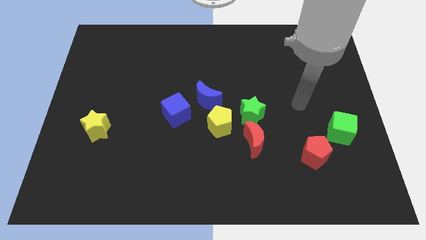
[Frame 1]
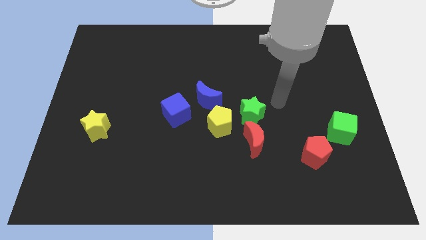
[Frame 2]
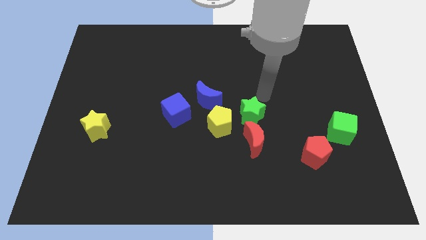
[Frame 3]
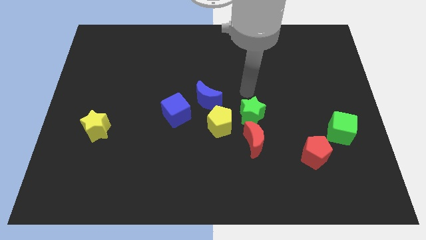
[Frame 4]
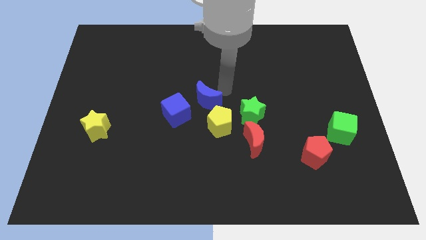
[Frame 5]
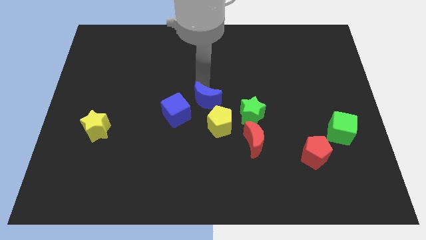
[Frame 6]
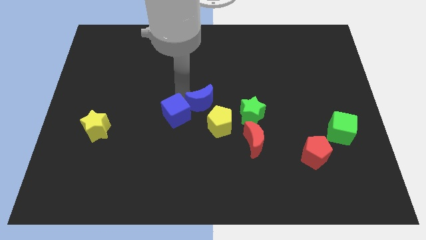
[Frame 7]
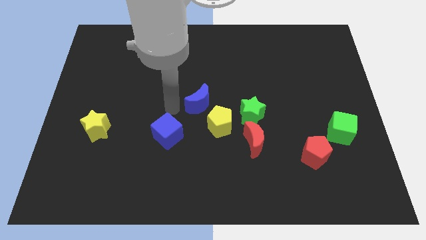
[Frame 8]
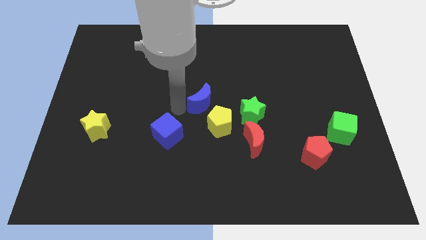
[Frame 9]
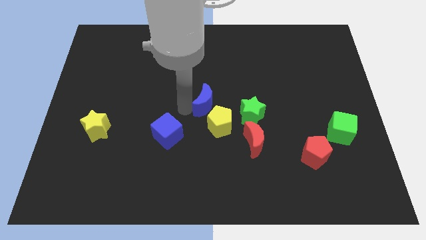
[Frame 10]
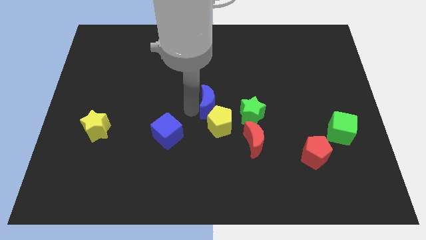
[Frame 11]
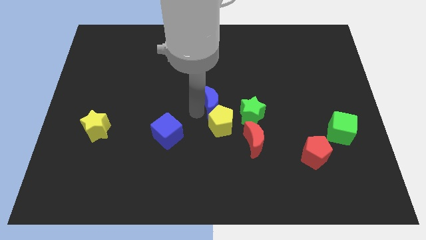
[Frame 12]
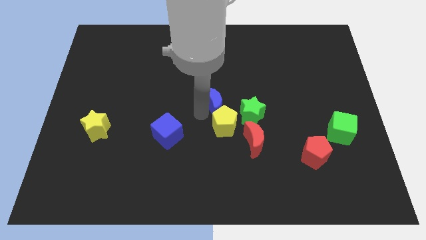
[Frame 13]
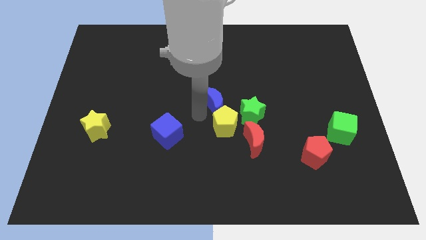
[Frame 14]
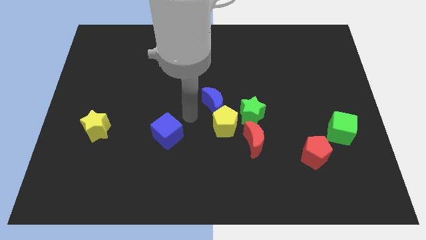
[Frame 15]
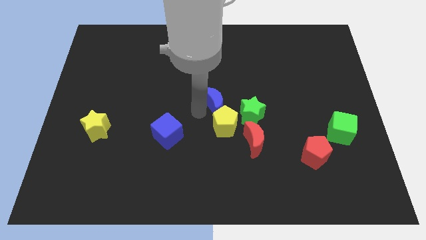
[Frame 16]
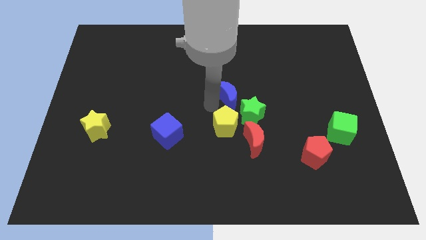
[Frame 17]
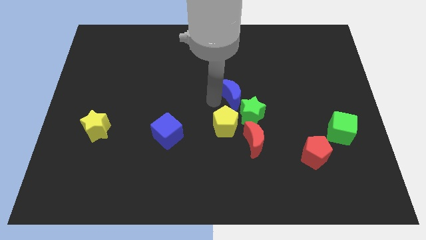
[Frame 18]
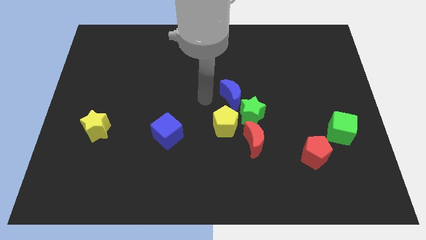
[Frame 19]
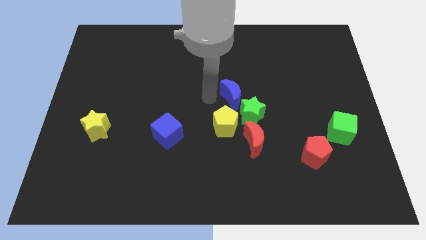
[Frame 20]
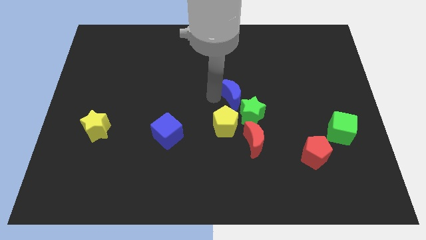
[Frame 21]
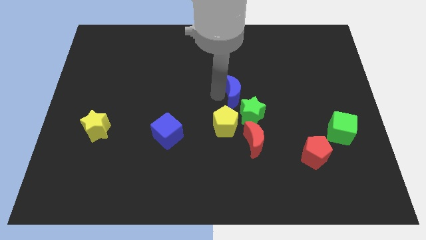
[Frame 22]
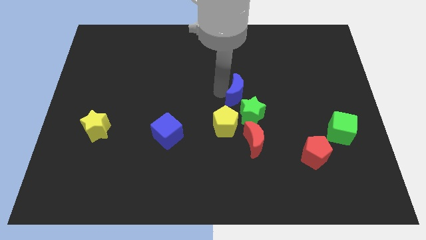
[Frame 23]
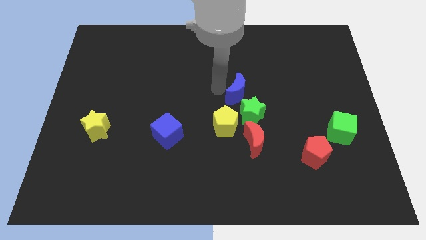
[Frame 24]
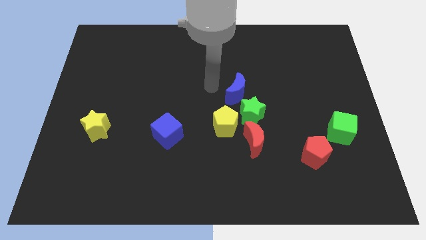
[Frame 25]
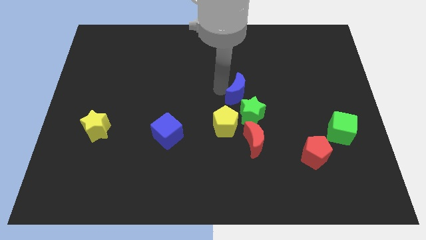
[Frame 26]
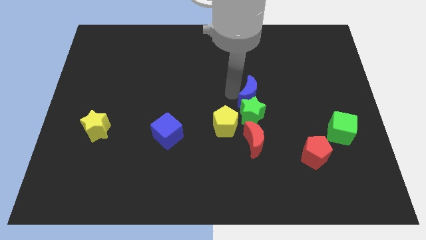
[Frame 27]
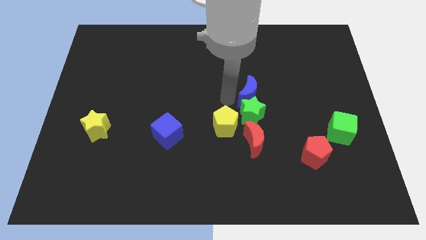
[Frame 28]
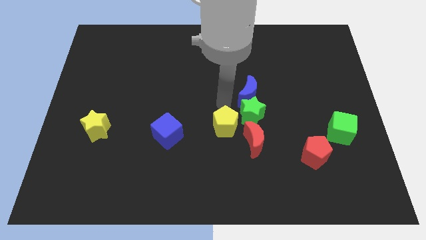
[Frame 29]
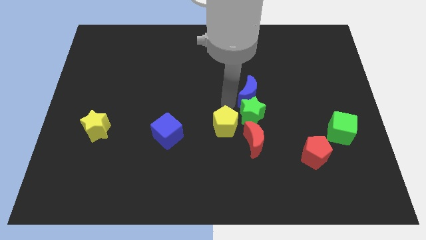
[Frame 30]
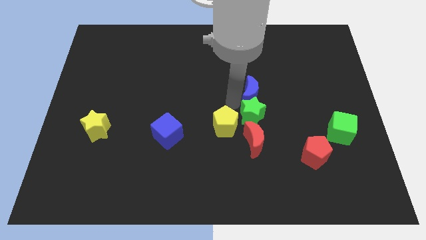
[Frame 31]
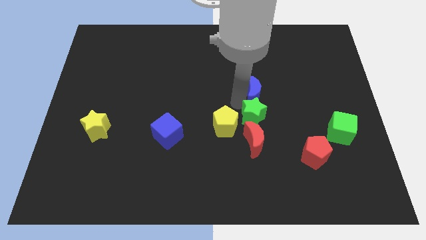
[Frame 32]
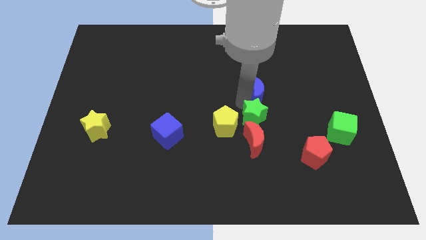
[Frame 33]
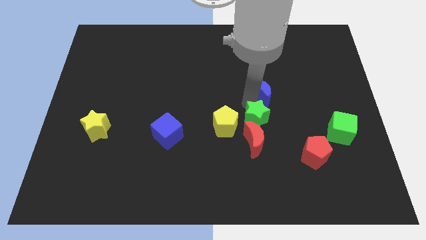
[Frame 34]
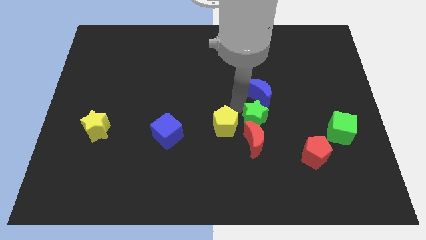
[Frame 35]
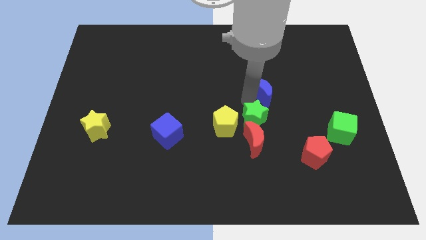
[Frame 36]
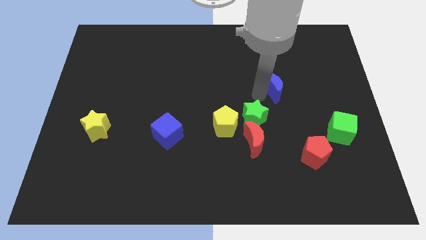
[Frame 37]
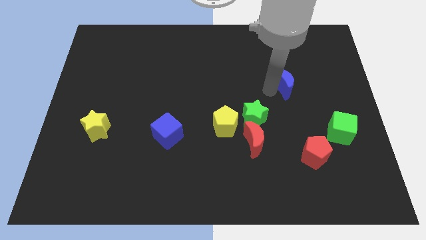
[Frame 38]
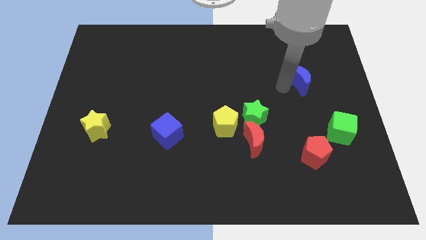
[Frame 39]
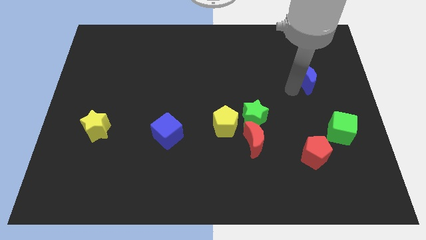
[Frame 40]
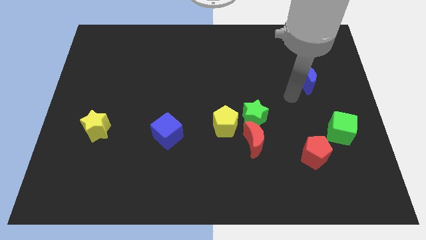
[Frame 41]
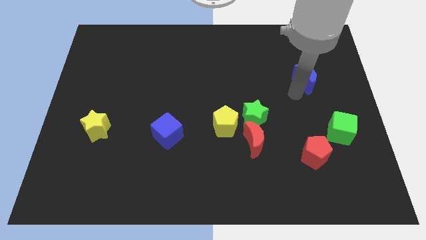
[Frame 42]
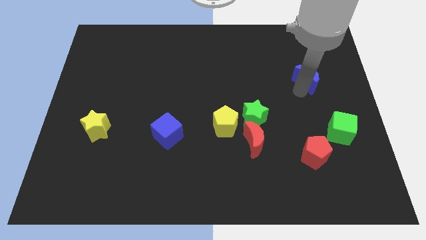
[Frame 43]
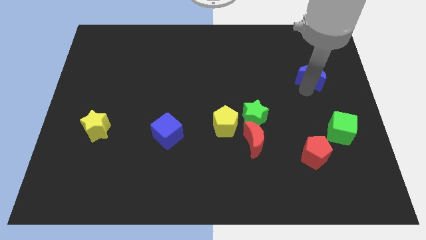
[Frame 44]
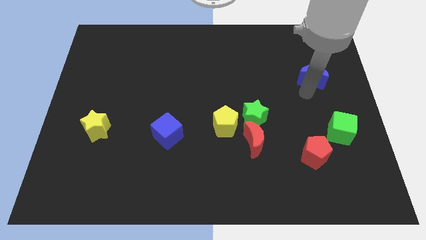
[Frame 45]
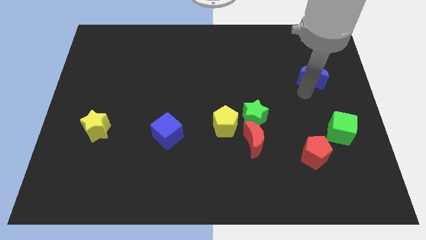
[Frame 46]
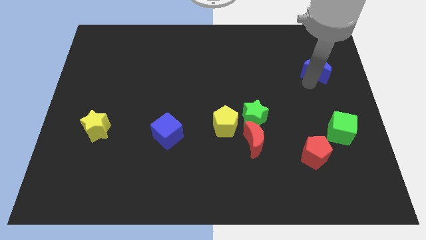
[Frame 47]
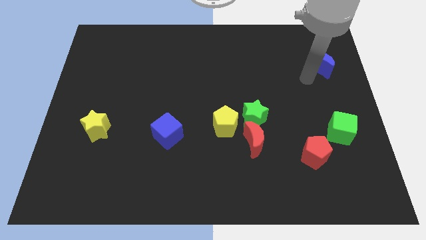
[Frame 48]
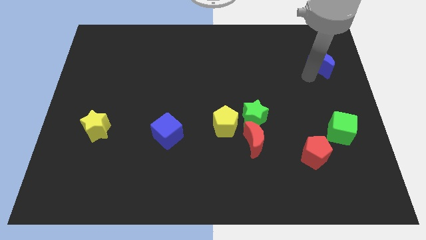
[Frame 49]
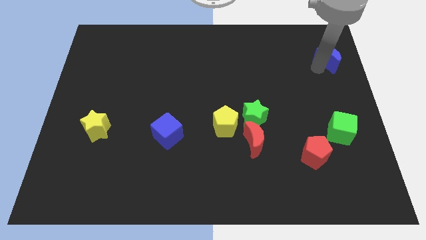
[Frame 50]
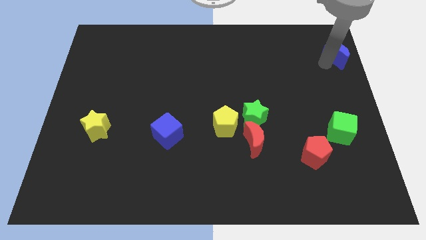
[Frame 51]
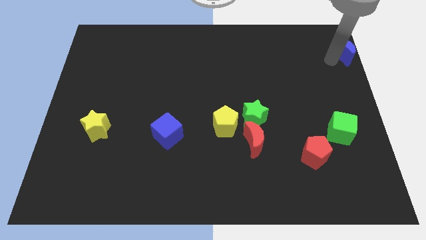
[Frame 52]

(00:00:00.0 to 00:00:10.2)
put the blue moon to the top right of the board

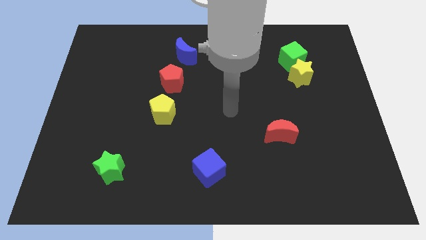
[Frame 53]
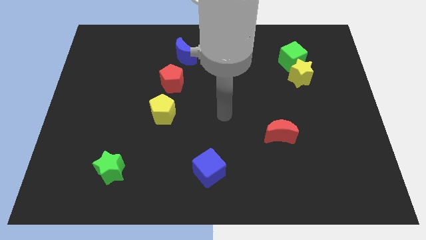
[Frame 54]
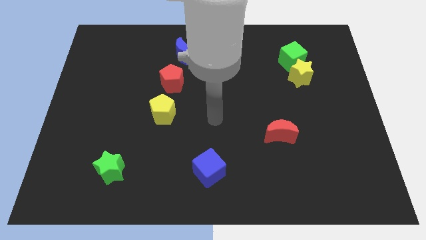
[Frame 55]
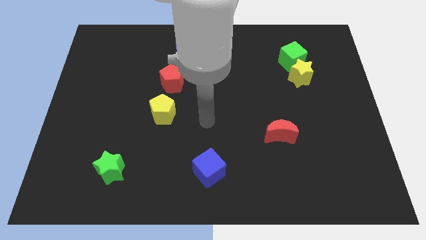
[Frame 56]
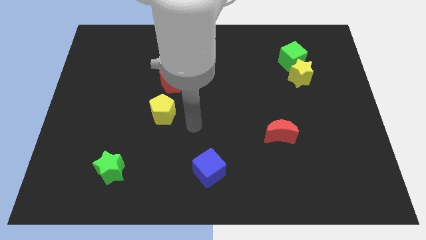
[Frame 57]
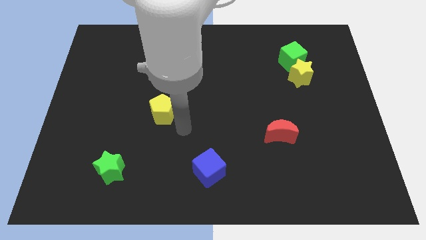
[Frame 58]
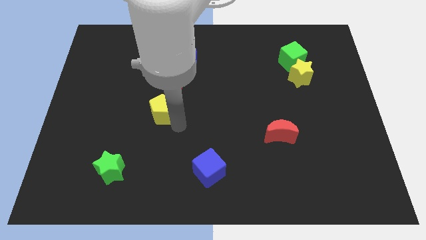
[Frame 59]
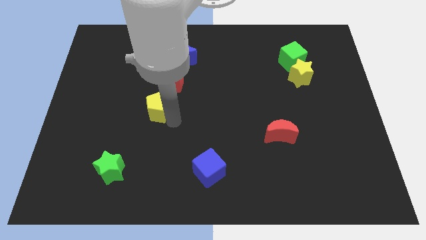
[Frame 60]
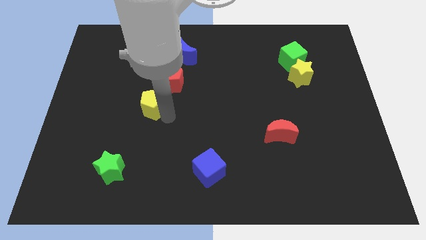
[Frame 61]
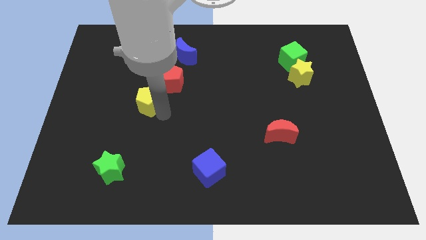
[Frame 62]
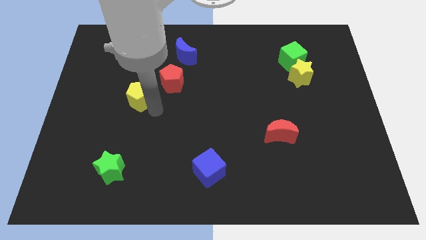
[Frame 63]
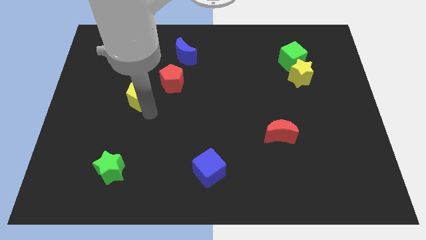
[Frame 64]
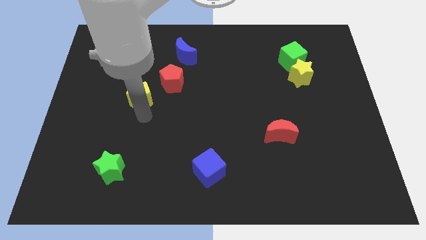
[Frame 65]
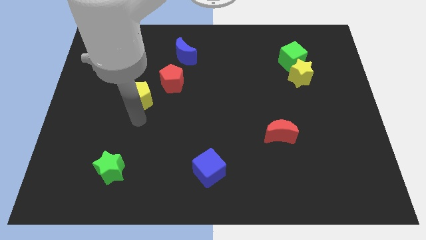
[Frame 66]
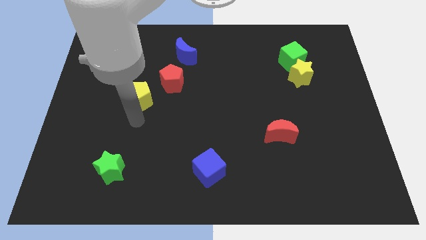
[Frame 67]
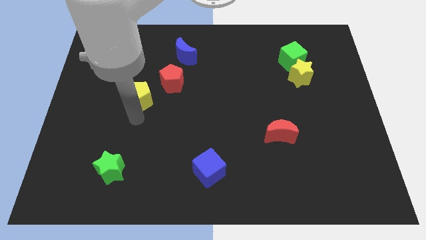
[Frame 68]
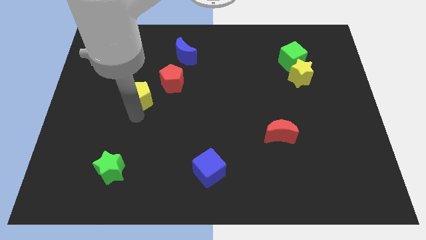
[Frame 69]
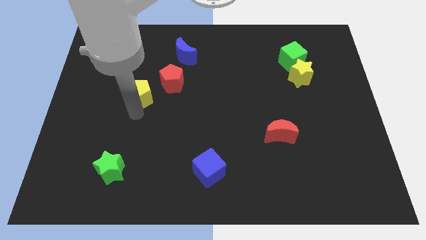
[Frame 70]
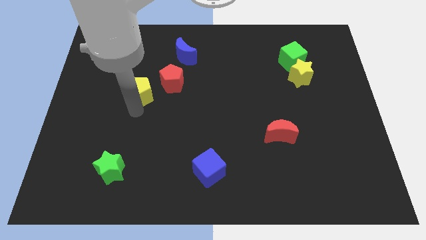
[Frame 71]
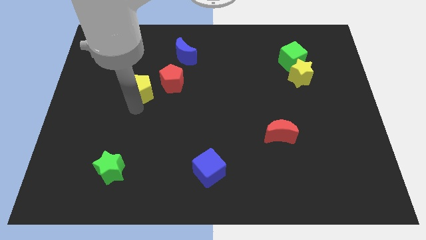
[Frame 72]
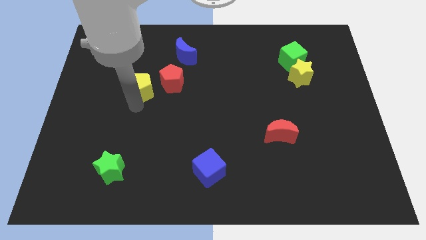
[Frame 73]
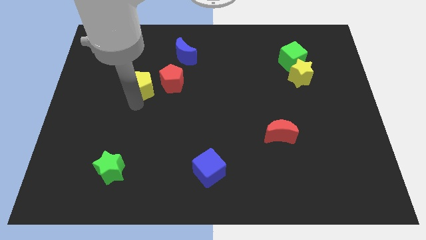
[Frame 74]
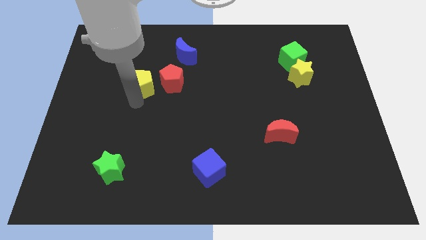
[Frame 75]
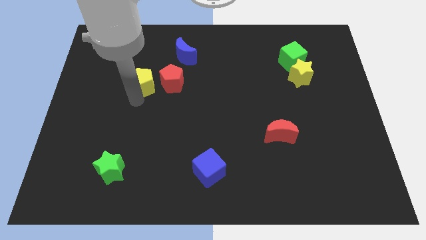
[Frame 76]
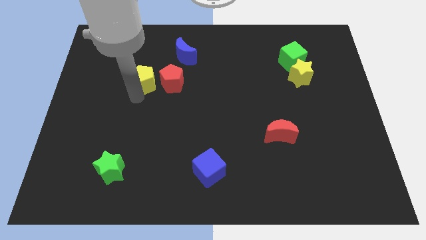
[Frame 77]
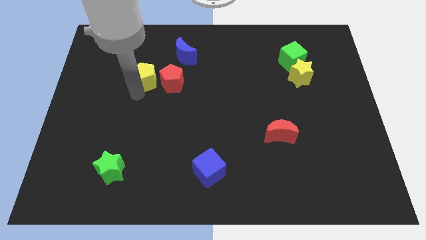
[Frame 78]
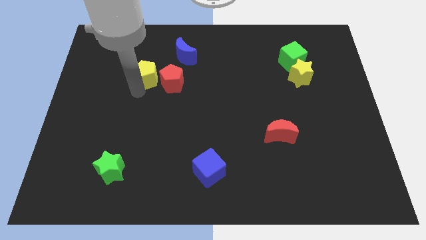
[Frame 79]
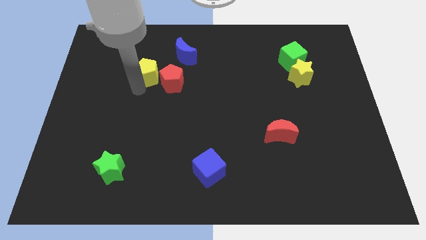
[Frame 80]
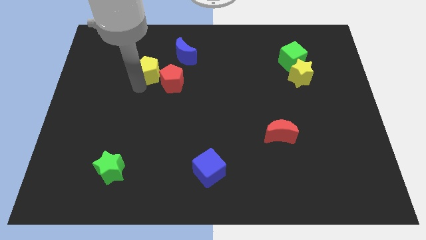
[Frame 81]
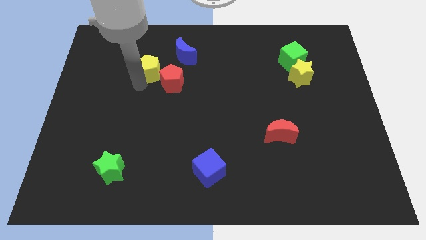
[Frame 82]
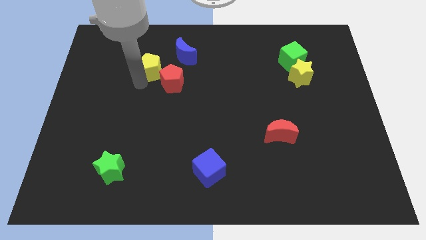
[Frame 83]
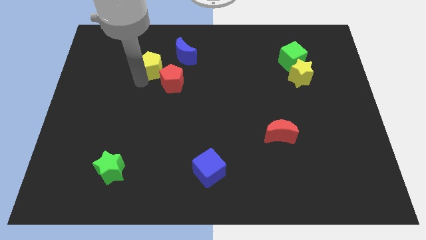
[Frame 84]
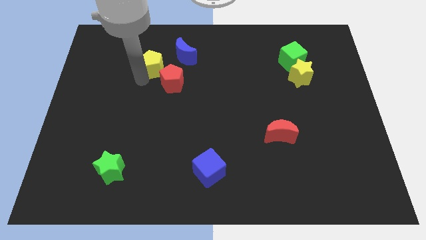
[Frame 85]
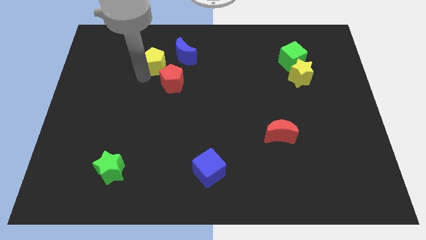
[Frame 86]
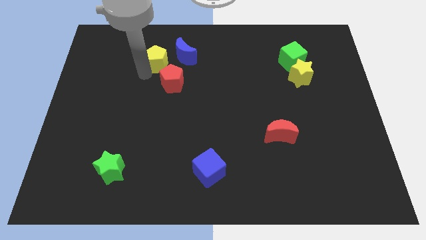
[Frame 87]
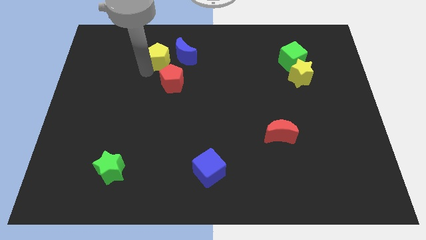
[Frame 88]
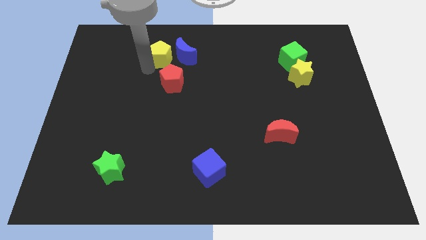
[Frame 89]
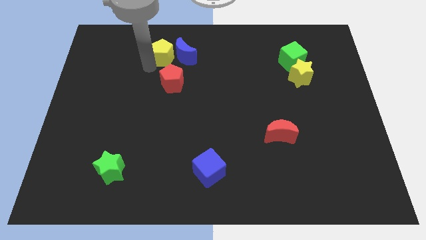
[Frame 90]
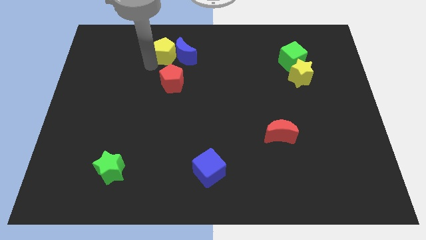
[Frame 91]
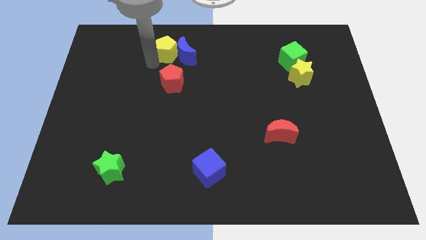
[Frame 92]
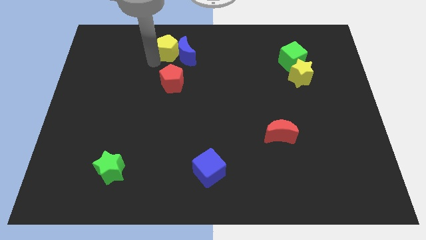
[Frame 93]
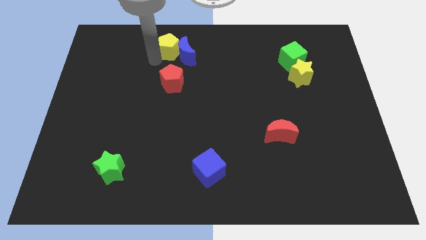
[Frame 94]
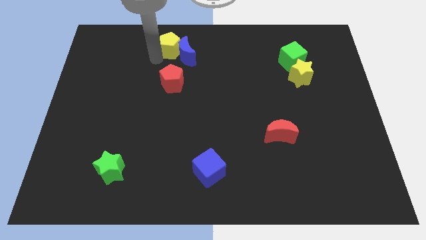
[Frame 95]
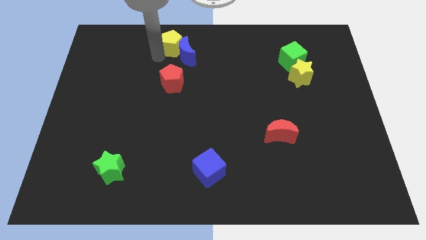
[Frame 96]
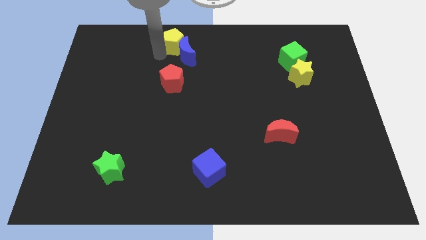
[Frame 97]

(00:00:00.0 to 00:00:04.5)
push the yellow pentagon to the towards your base
